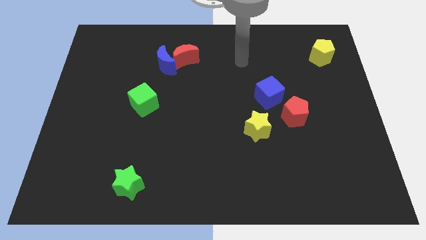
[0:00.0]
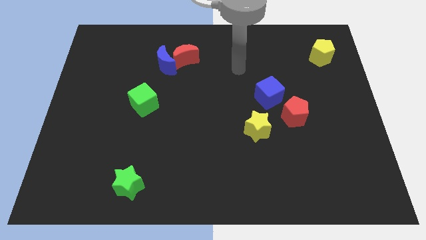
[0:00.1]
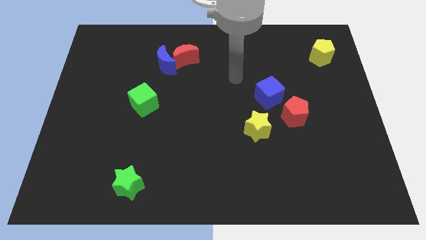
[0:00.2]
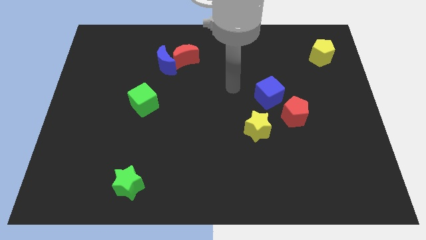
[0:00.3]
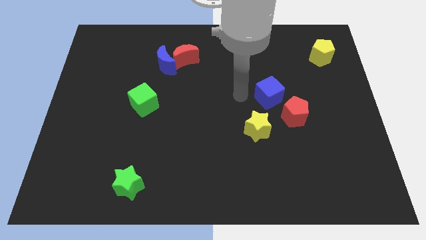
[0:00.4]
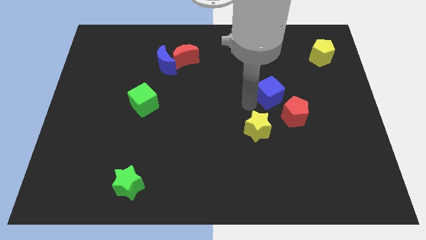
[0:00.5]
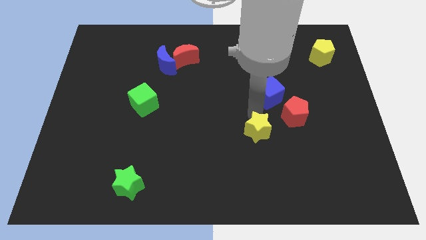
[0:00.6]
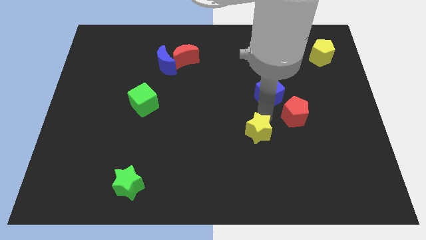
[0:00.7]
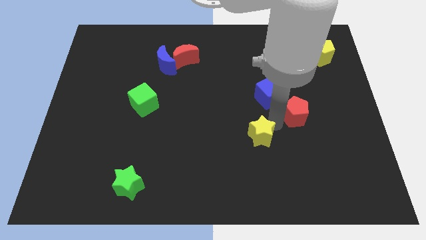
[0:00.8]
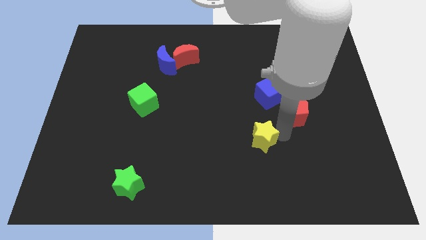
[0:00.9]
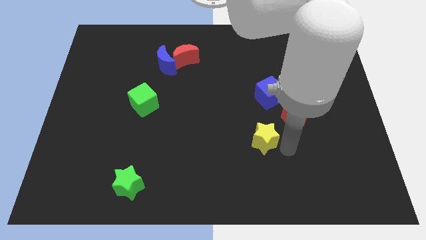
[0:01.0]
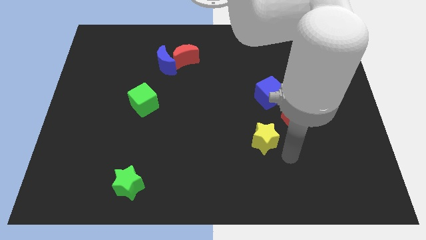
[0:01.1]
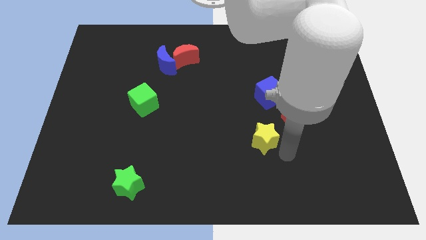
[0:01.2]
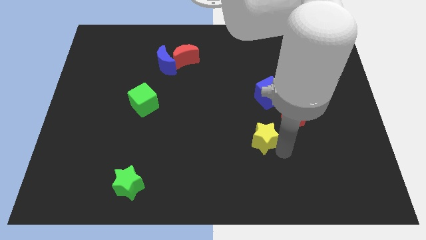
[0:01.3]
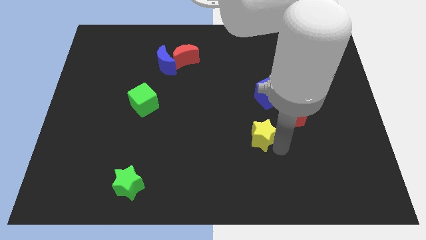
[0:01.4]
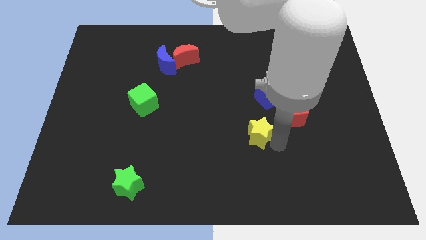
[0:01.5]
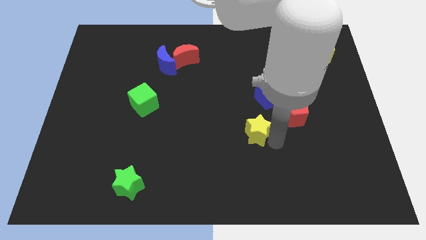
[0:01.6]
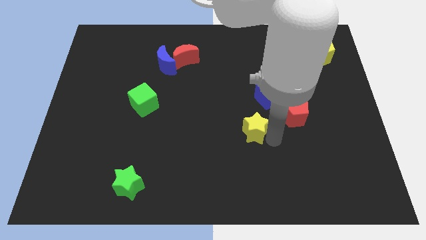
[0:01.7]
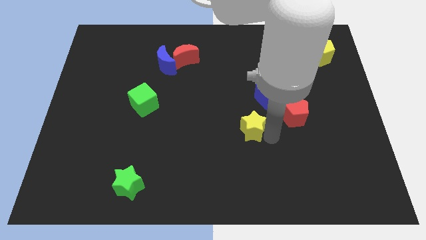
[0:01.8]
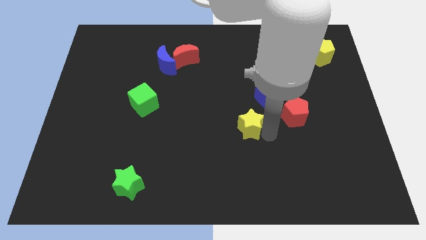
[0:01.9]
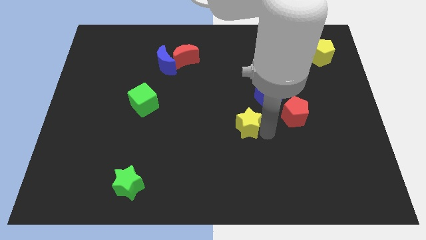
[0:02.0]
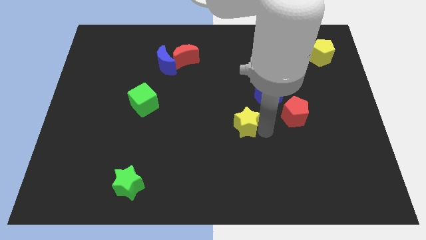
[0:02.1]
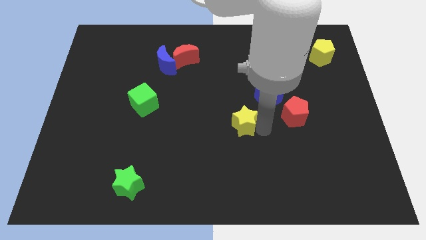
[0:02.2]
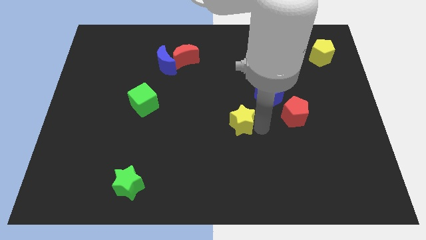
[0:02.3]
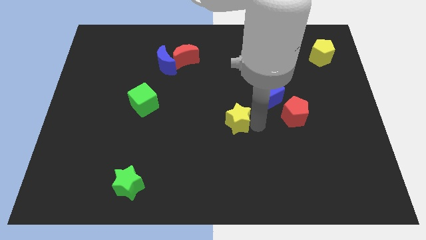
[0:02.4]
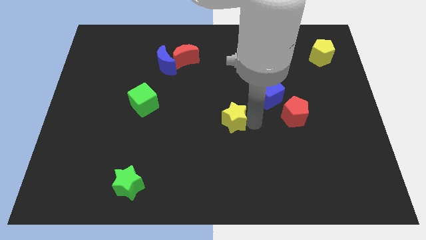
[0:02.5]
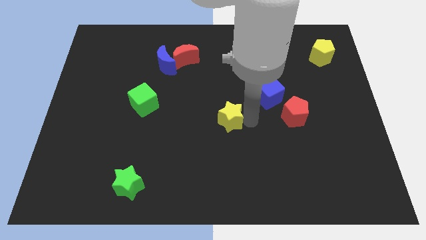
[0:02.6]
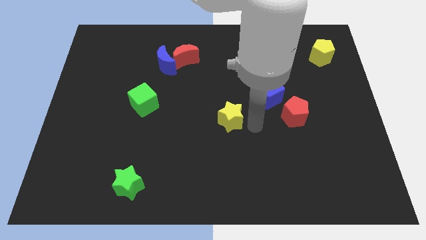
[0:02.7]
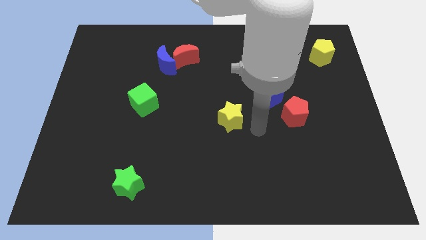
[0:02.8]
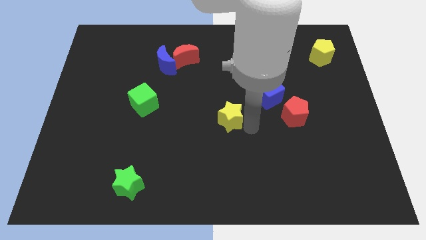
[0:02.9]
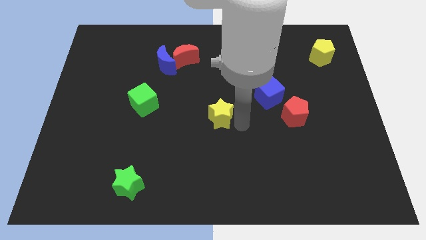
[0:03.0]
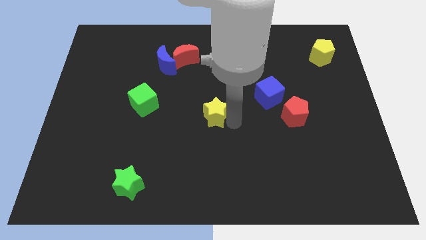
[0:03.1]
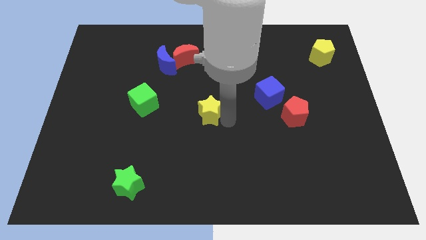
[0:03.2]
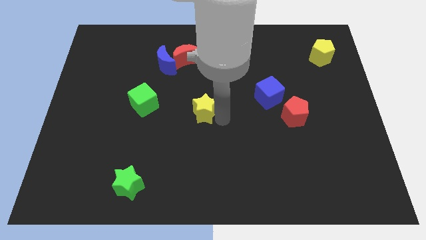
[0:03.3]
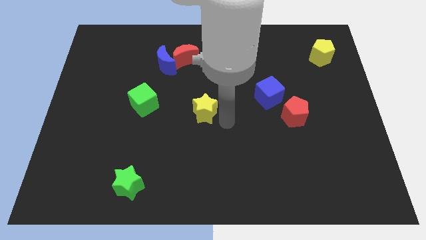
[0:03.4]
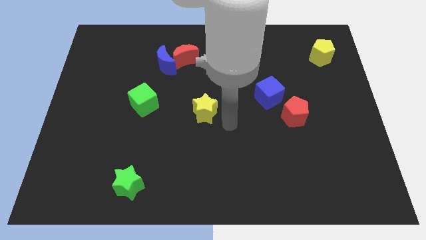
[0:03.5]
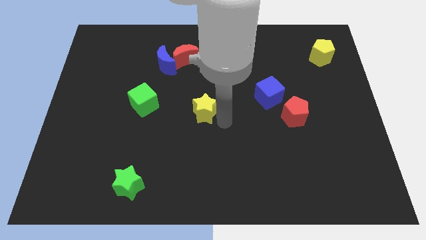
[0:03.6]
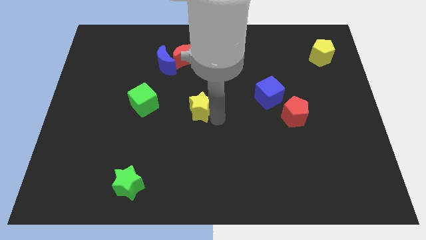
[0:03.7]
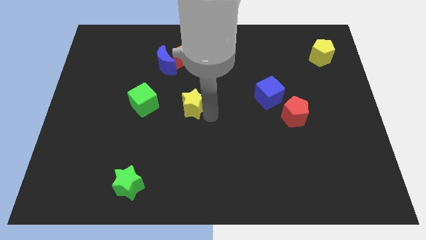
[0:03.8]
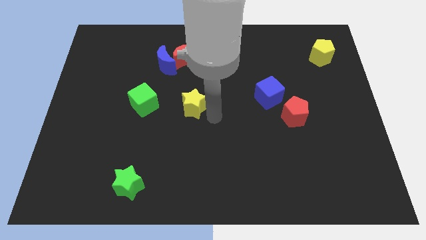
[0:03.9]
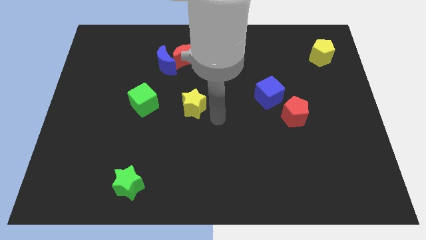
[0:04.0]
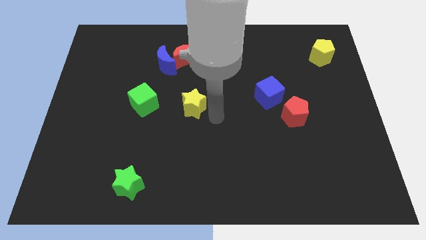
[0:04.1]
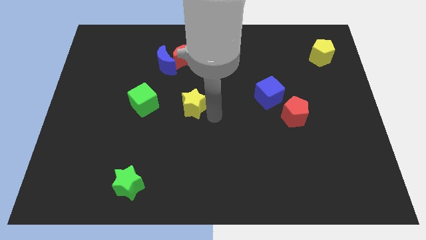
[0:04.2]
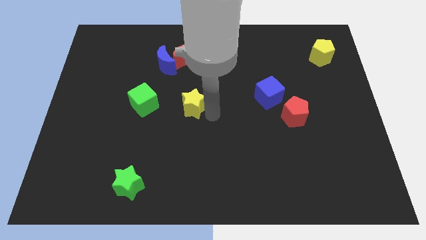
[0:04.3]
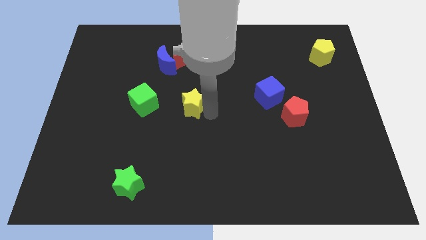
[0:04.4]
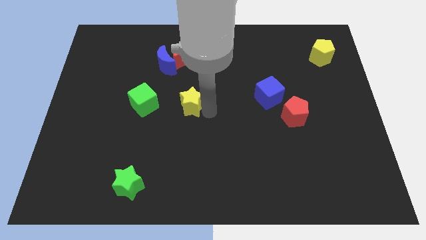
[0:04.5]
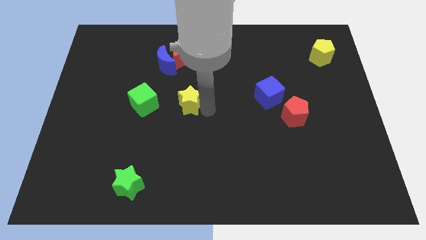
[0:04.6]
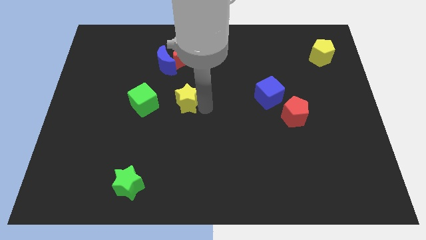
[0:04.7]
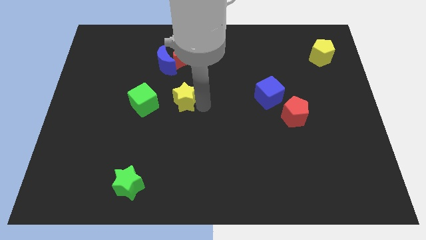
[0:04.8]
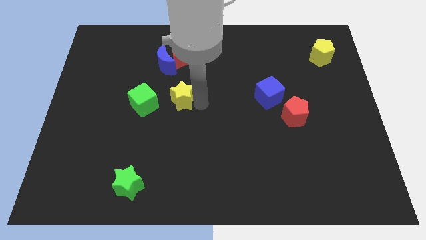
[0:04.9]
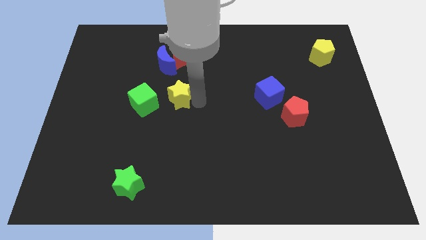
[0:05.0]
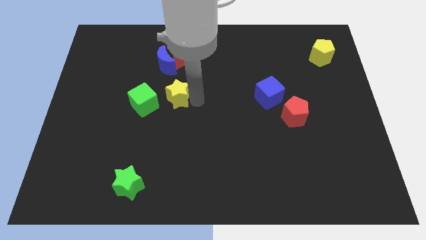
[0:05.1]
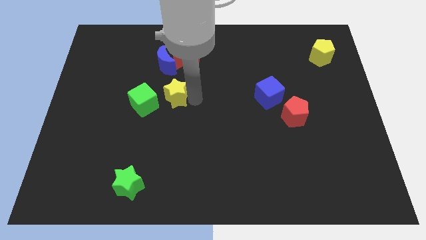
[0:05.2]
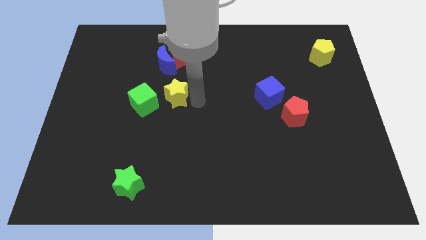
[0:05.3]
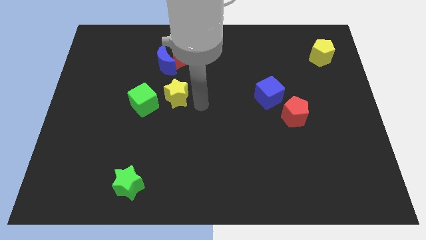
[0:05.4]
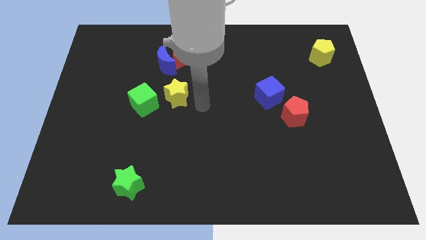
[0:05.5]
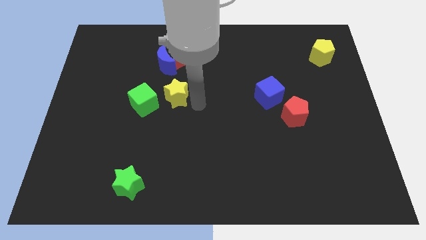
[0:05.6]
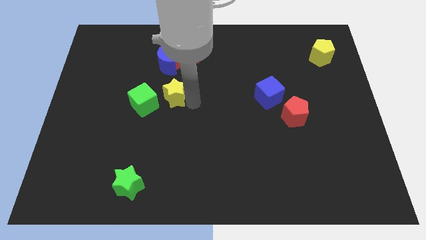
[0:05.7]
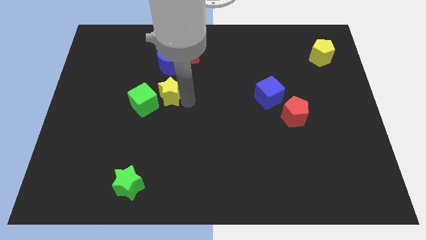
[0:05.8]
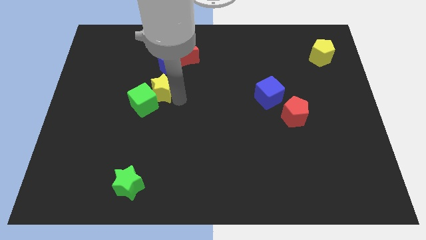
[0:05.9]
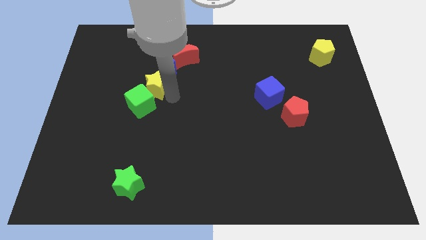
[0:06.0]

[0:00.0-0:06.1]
push the yellow star to the bottom left of the blue moon

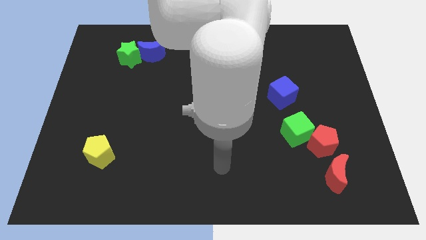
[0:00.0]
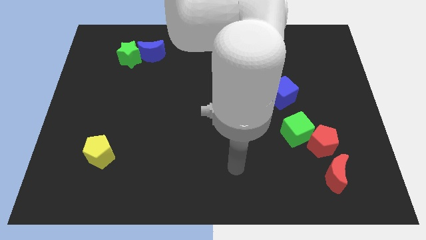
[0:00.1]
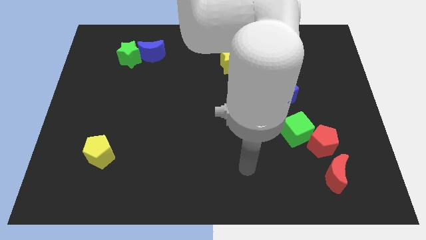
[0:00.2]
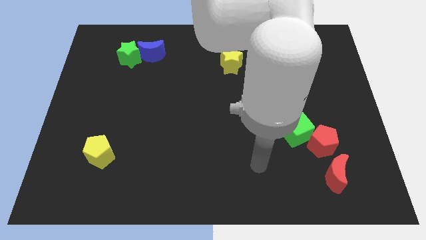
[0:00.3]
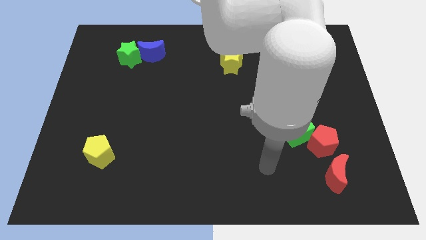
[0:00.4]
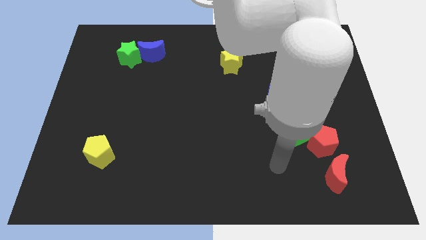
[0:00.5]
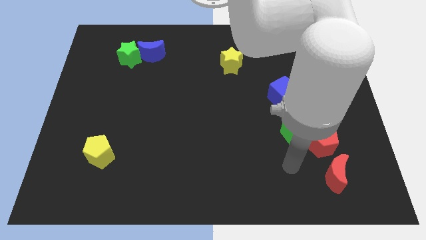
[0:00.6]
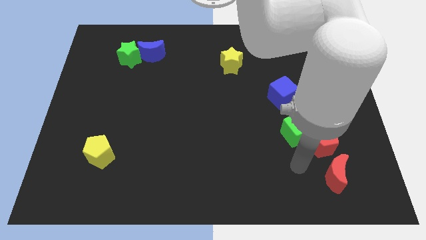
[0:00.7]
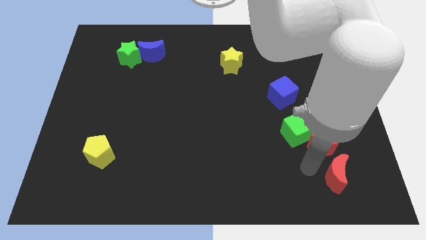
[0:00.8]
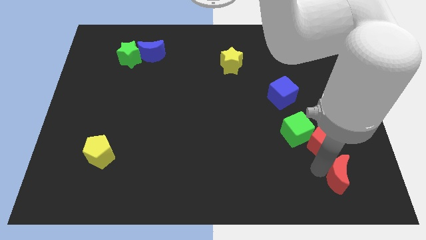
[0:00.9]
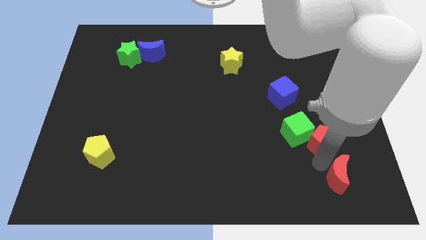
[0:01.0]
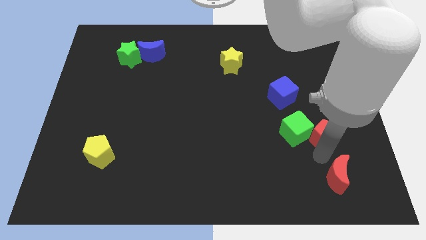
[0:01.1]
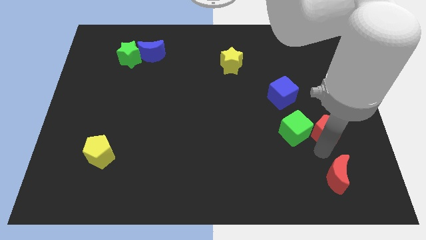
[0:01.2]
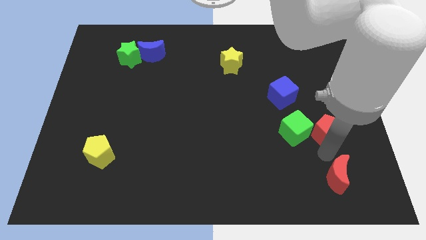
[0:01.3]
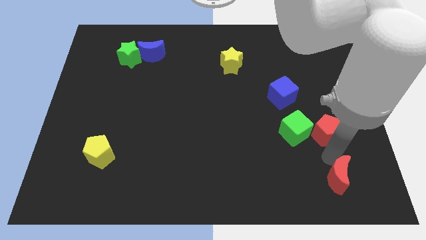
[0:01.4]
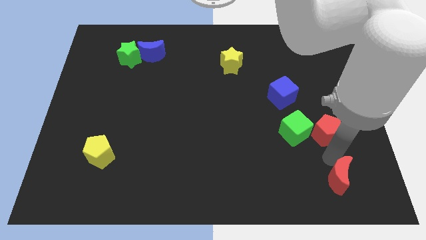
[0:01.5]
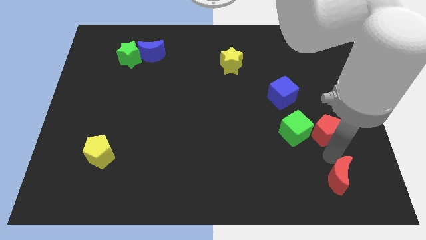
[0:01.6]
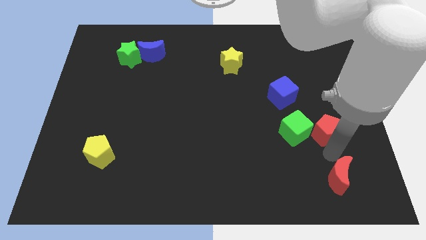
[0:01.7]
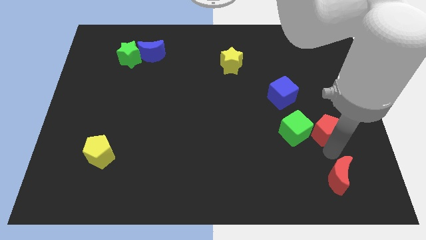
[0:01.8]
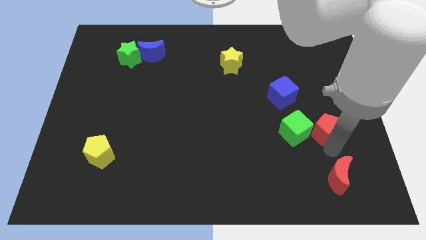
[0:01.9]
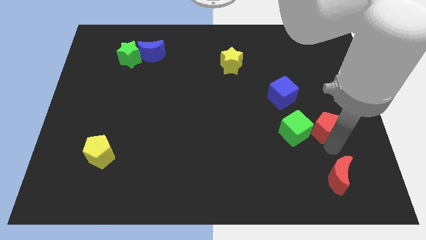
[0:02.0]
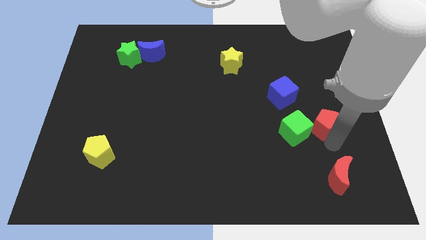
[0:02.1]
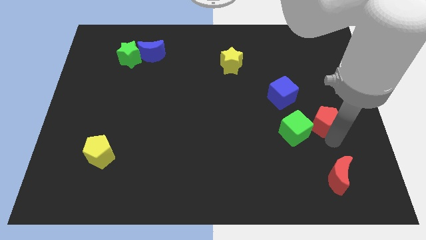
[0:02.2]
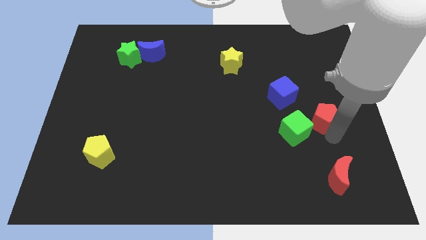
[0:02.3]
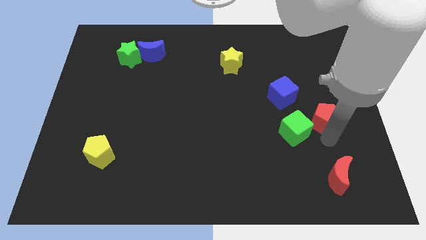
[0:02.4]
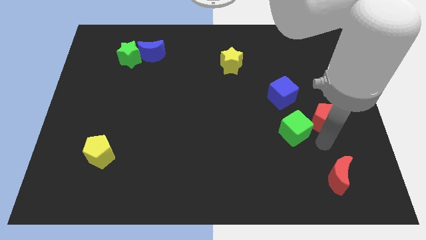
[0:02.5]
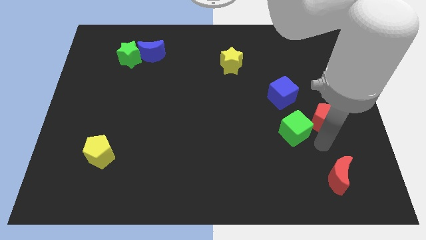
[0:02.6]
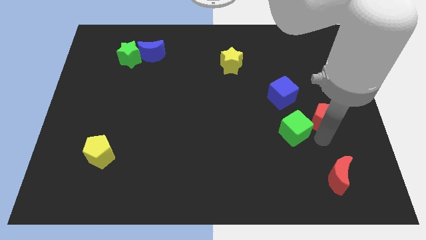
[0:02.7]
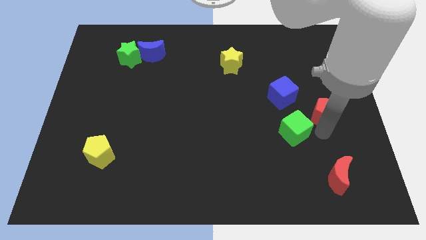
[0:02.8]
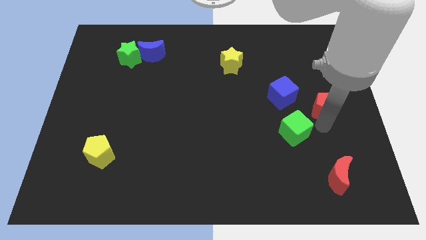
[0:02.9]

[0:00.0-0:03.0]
slide the red pentagon to the right side of the blue cube
